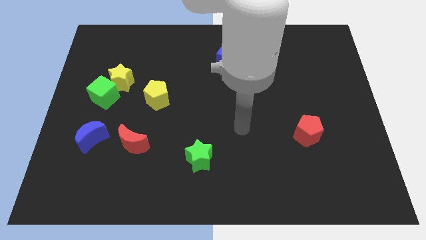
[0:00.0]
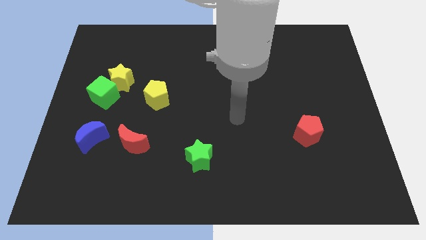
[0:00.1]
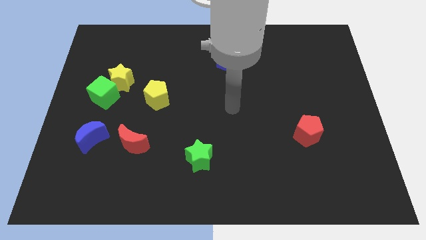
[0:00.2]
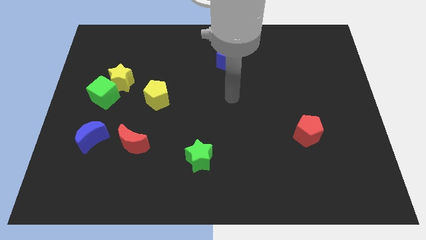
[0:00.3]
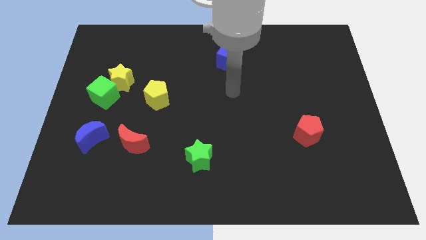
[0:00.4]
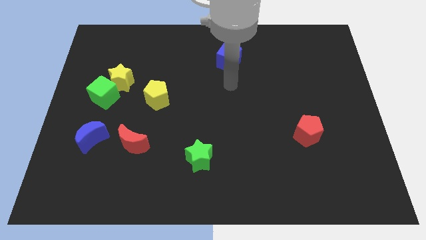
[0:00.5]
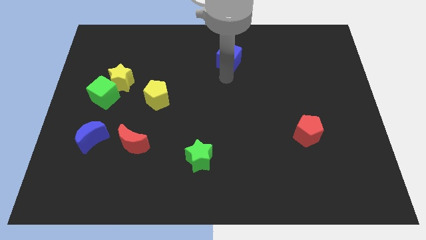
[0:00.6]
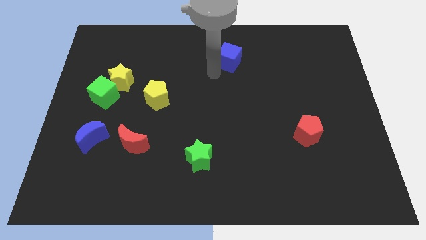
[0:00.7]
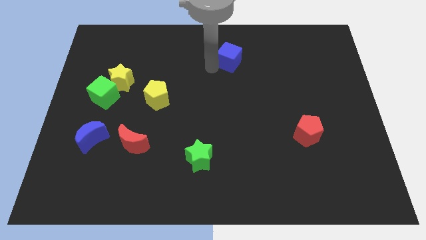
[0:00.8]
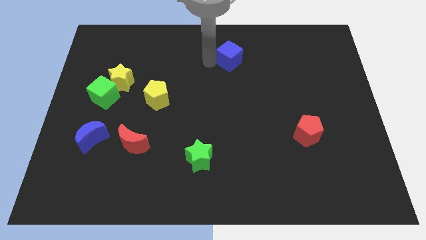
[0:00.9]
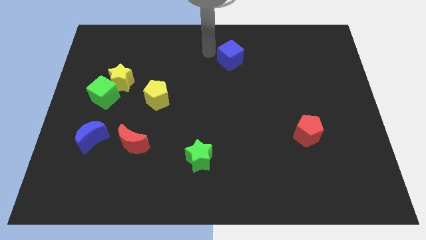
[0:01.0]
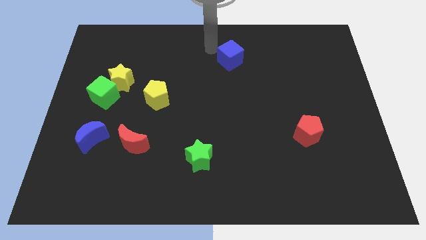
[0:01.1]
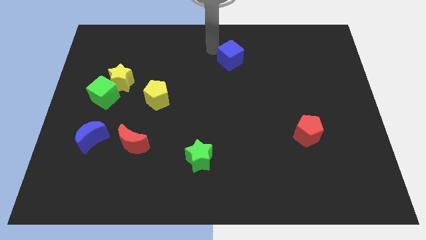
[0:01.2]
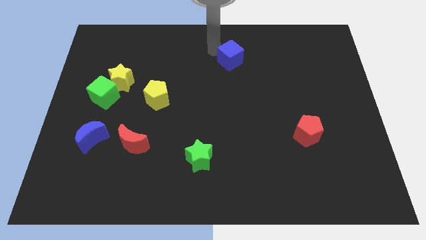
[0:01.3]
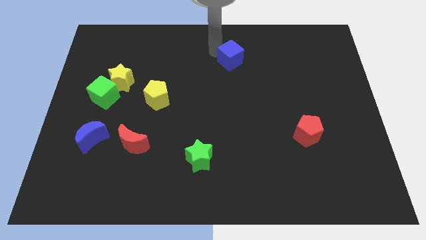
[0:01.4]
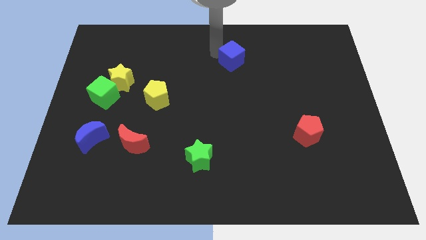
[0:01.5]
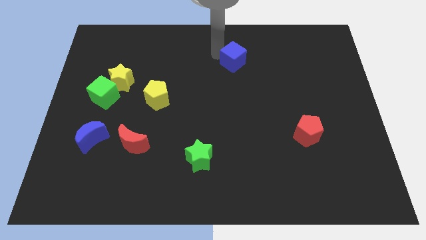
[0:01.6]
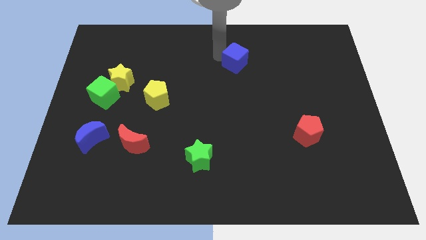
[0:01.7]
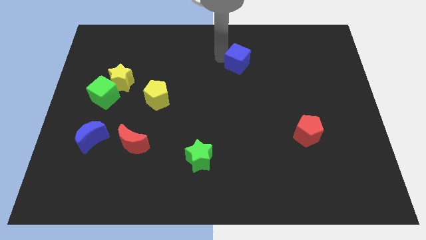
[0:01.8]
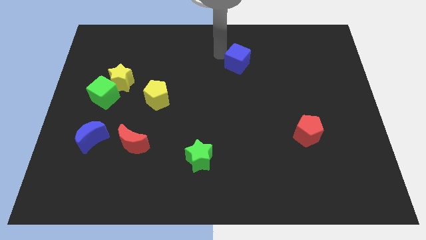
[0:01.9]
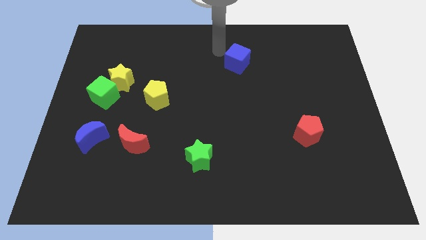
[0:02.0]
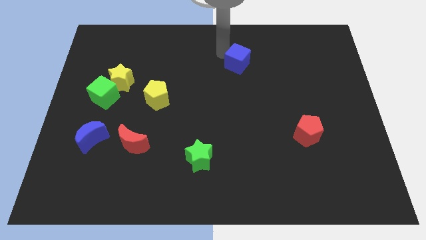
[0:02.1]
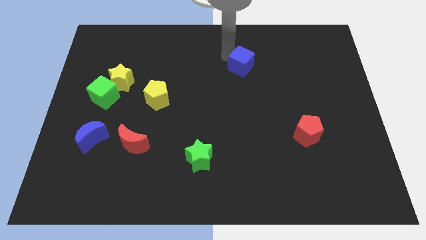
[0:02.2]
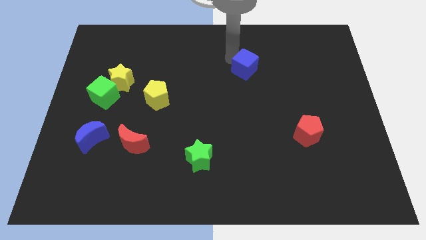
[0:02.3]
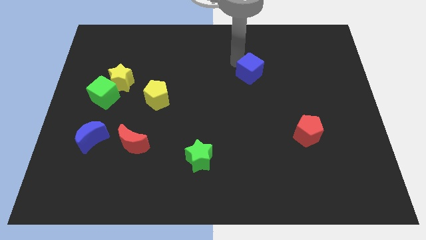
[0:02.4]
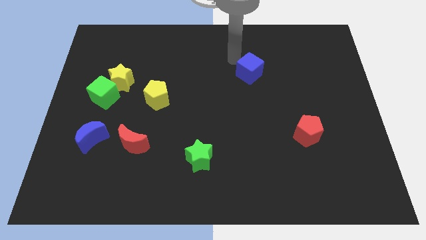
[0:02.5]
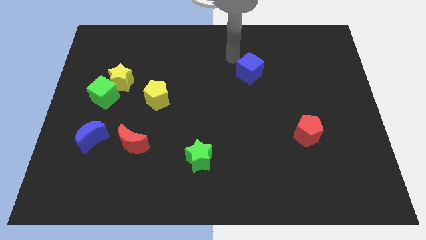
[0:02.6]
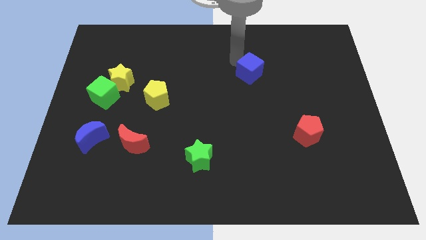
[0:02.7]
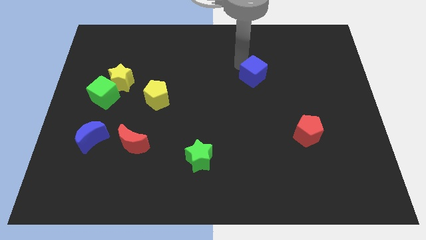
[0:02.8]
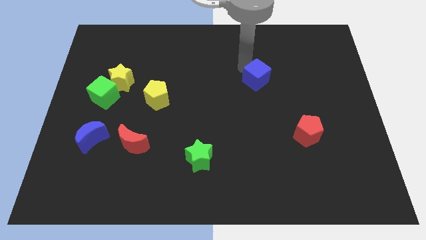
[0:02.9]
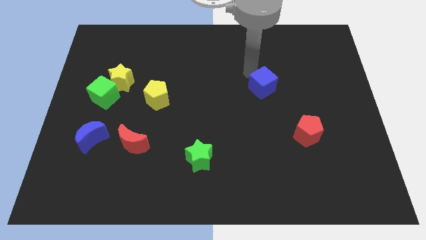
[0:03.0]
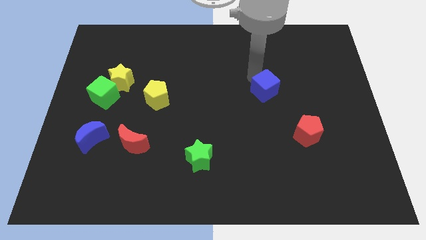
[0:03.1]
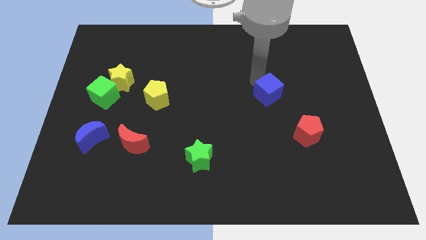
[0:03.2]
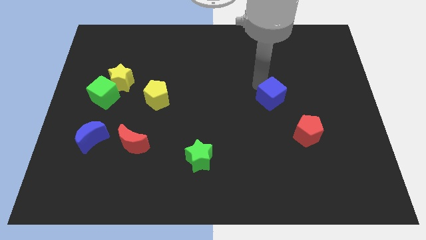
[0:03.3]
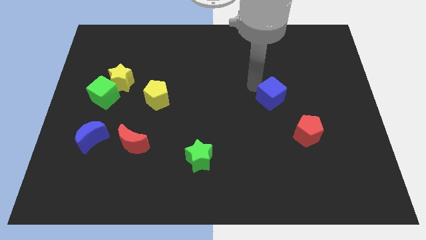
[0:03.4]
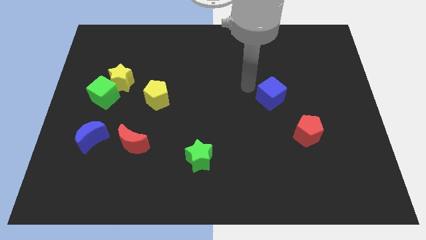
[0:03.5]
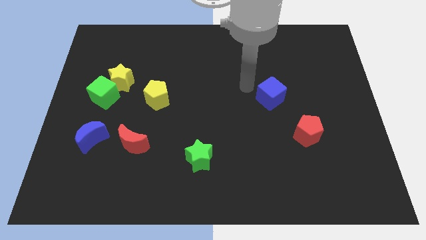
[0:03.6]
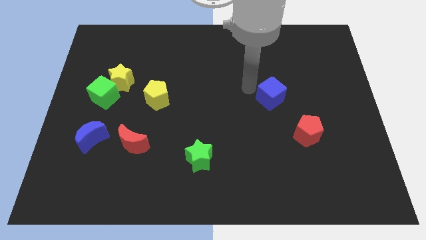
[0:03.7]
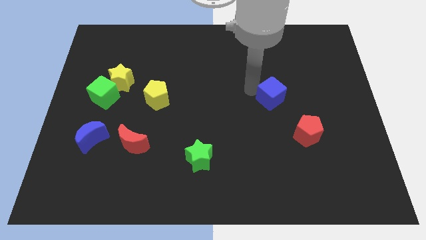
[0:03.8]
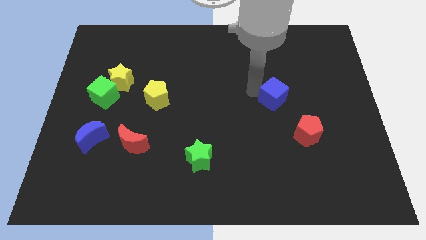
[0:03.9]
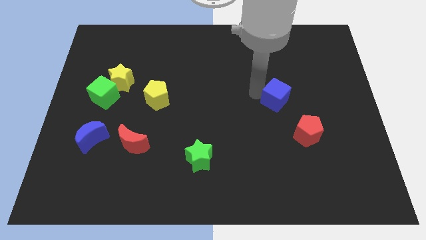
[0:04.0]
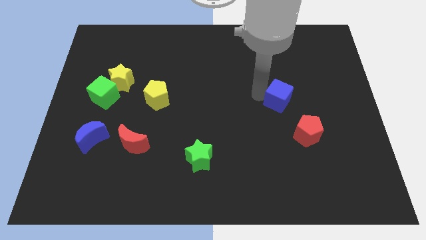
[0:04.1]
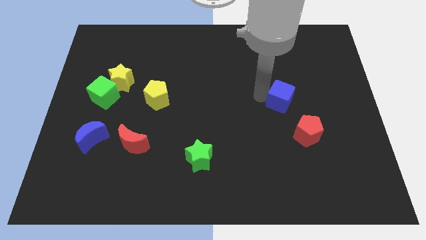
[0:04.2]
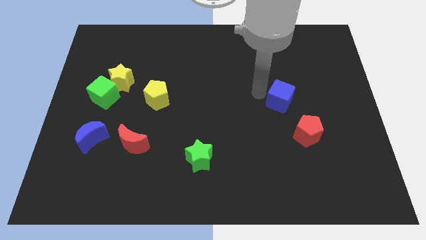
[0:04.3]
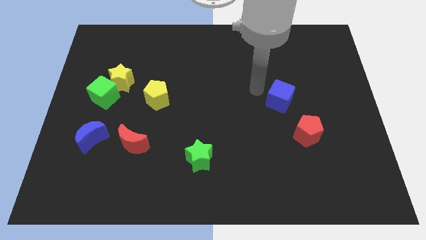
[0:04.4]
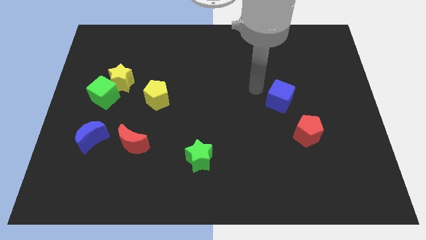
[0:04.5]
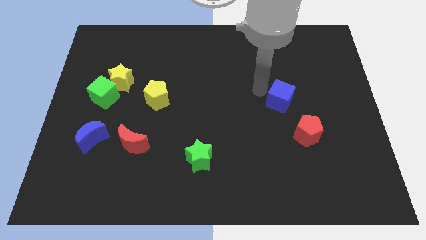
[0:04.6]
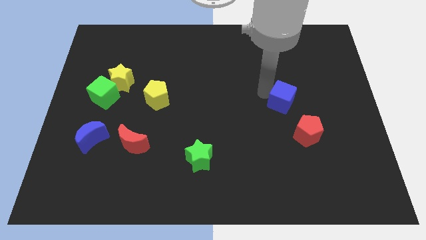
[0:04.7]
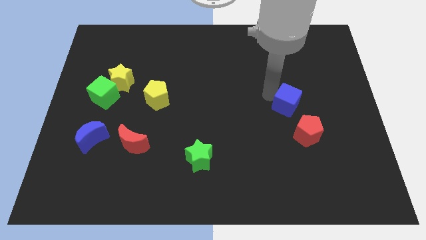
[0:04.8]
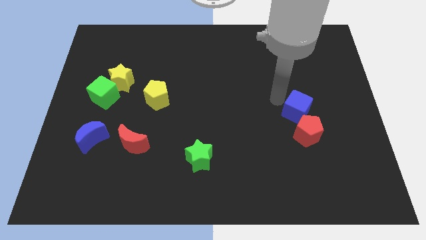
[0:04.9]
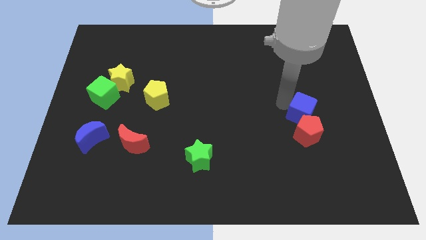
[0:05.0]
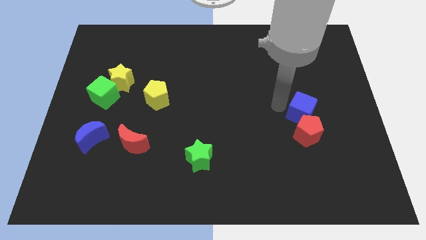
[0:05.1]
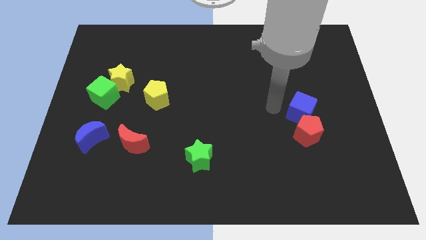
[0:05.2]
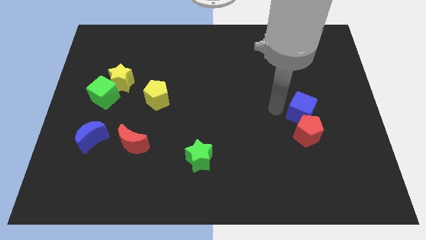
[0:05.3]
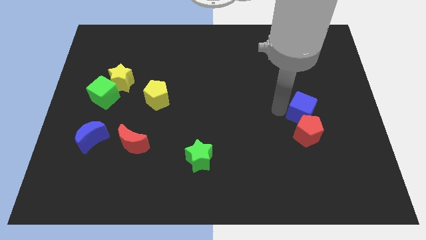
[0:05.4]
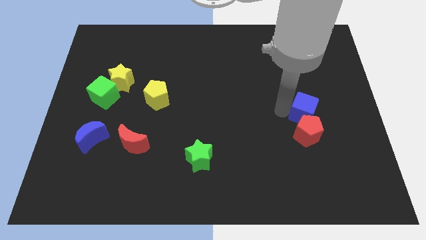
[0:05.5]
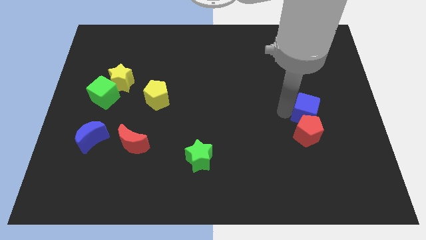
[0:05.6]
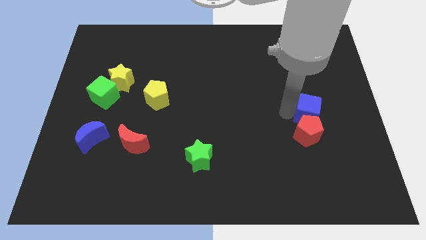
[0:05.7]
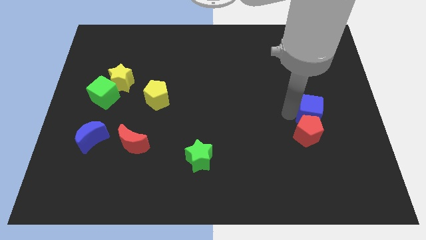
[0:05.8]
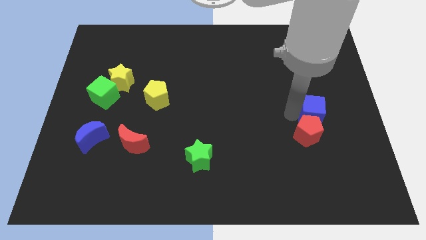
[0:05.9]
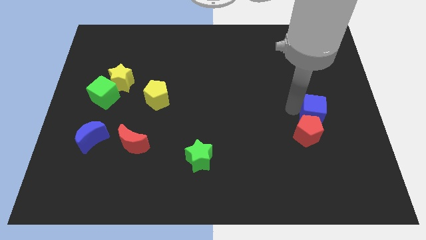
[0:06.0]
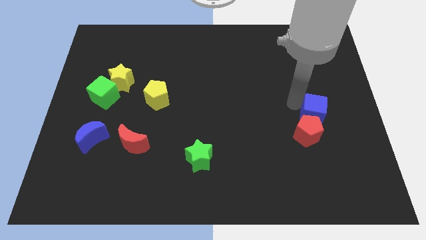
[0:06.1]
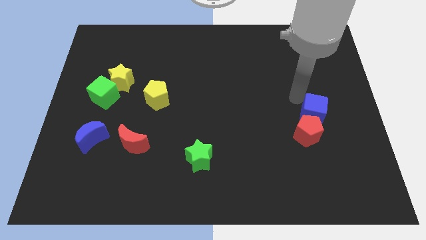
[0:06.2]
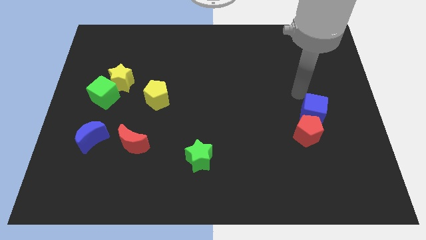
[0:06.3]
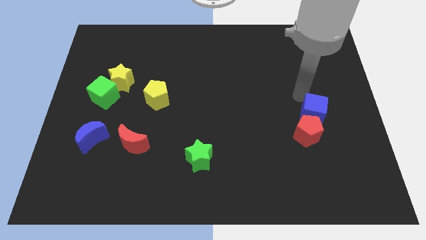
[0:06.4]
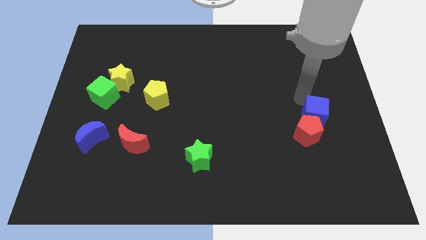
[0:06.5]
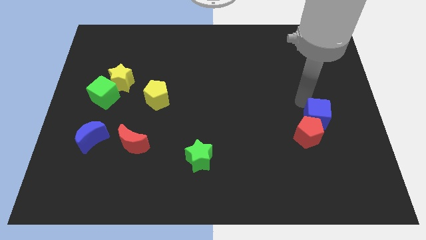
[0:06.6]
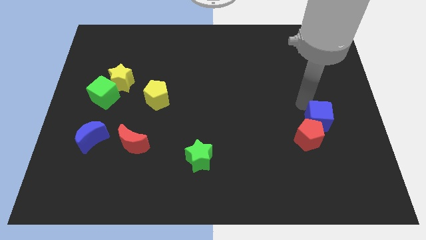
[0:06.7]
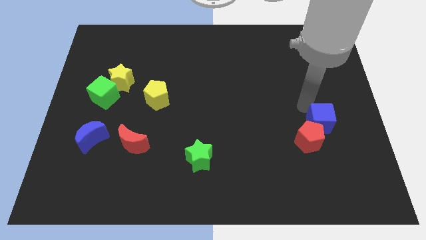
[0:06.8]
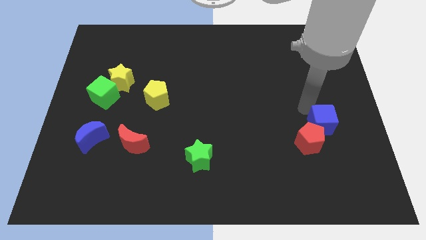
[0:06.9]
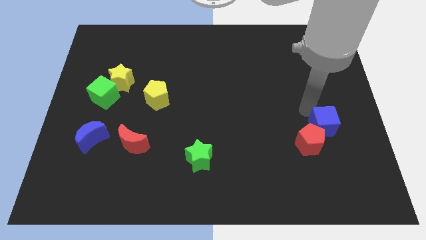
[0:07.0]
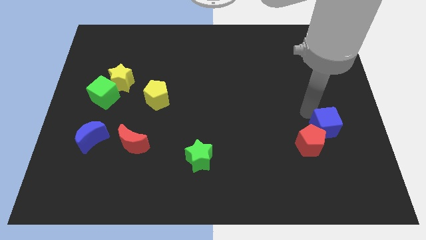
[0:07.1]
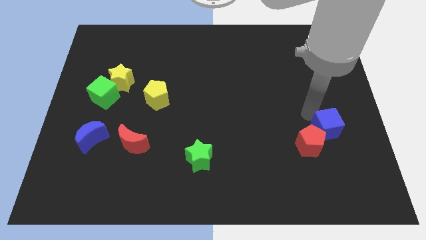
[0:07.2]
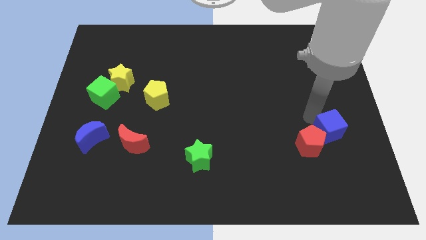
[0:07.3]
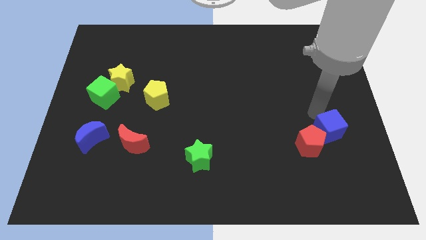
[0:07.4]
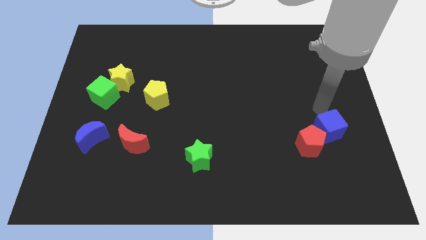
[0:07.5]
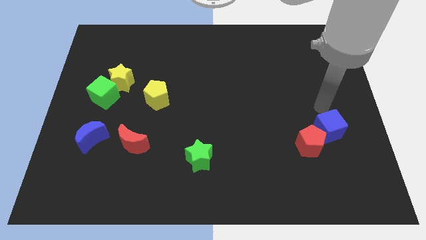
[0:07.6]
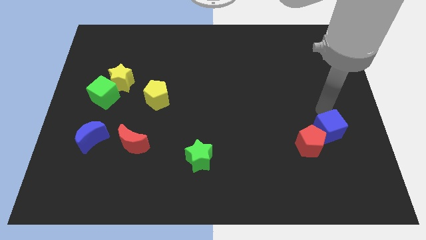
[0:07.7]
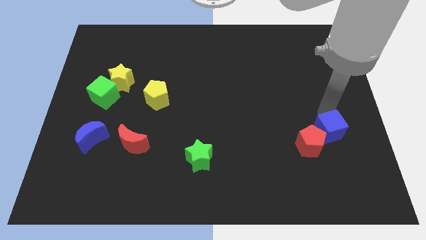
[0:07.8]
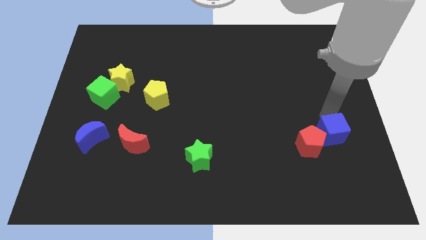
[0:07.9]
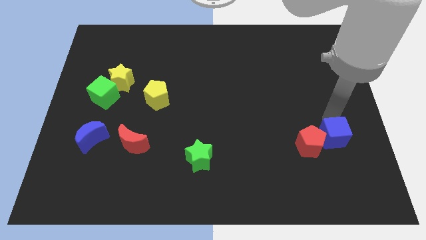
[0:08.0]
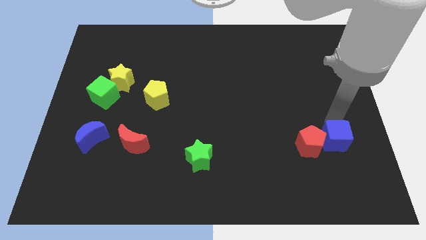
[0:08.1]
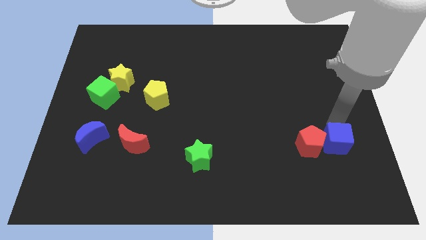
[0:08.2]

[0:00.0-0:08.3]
slide the blue cube to the bottom right side of the red pentagon
